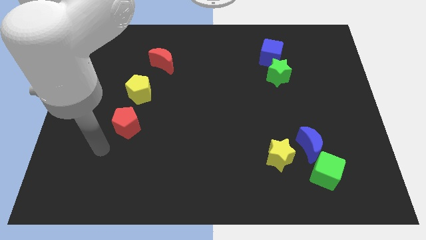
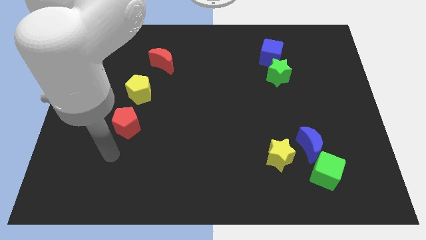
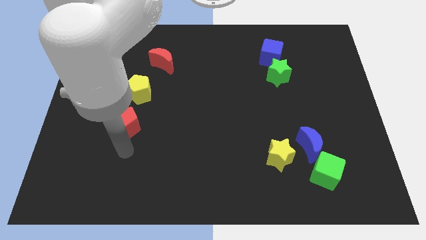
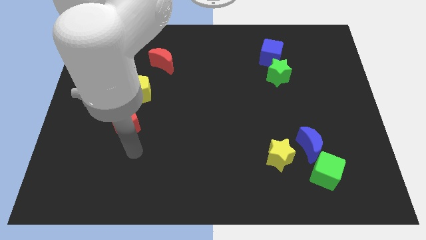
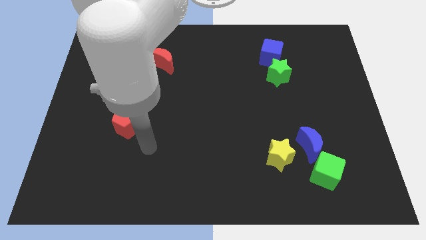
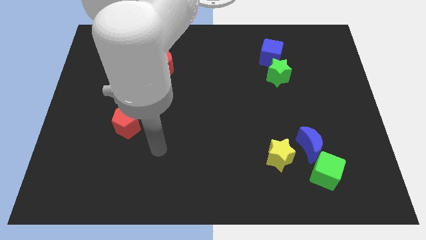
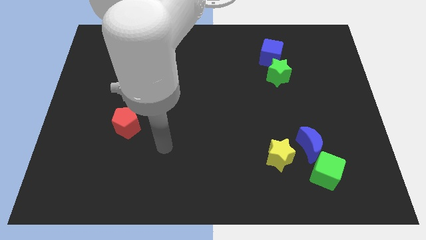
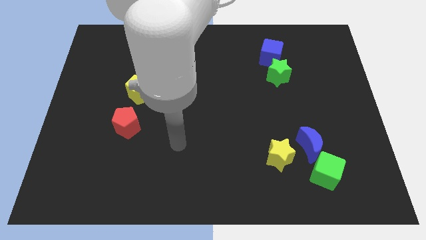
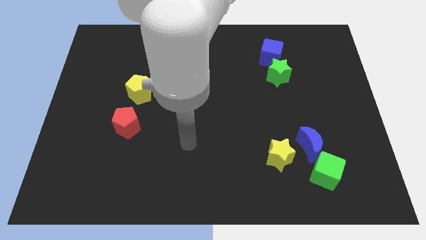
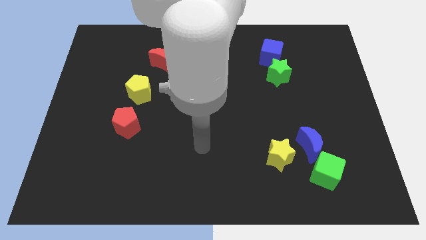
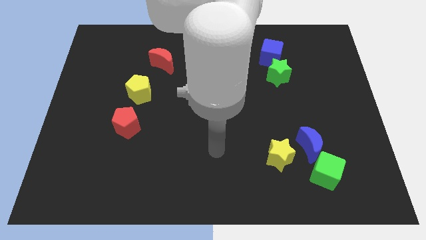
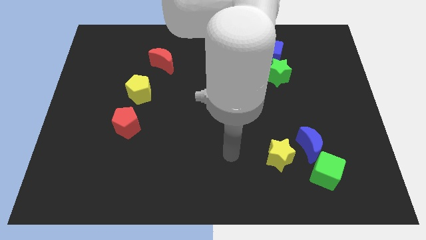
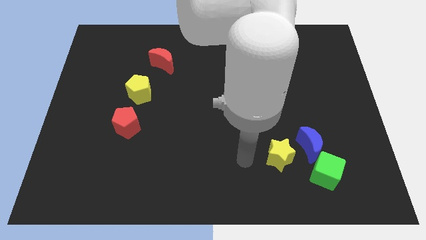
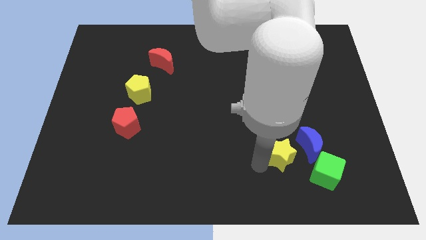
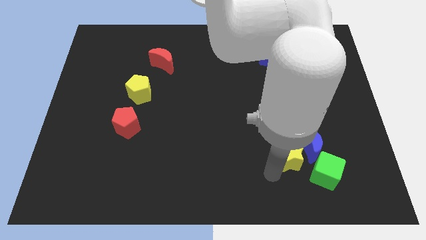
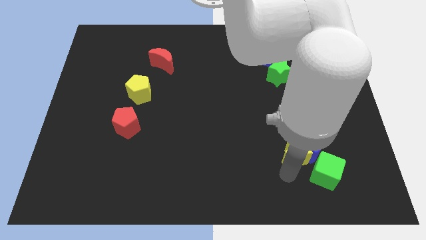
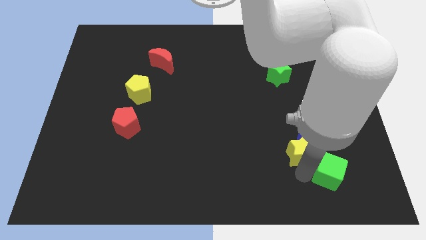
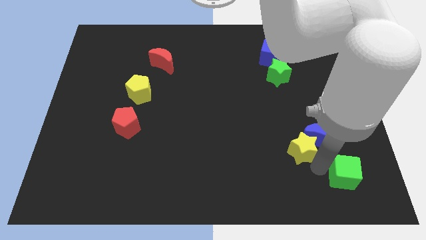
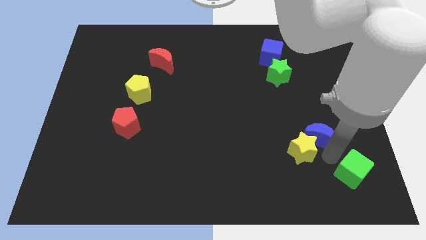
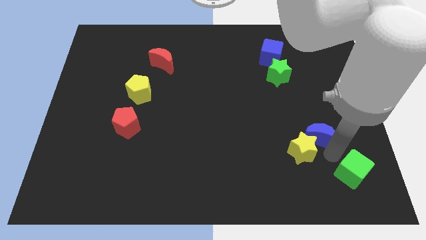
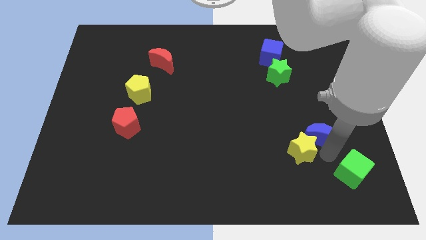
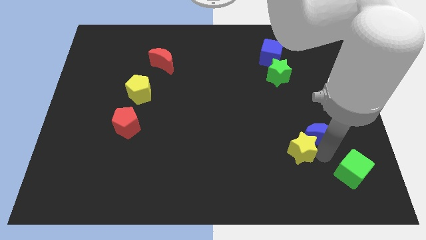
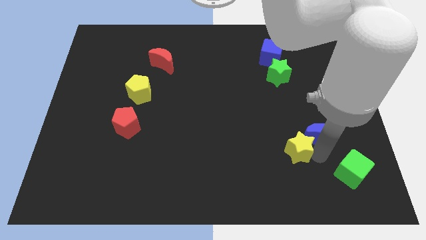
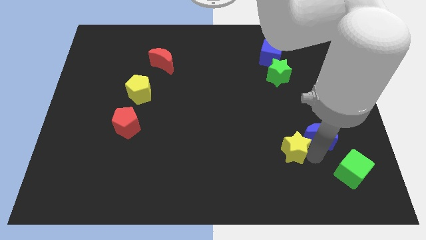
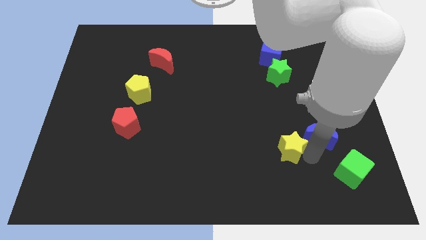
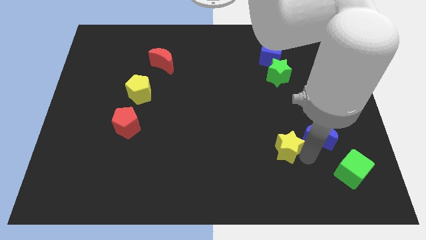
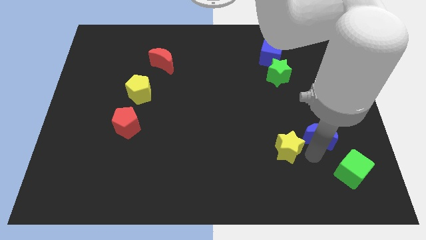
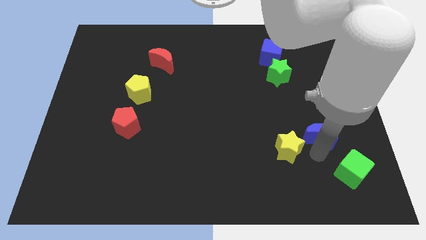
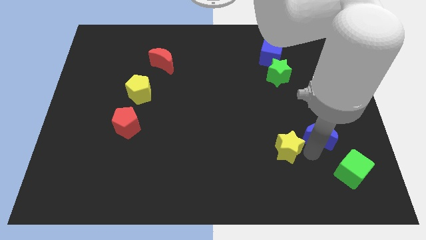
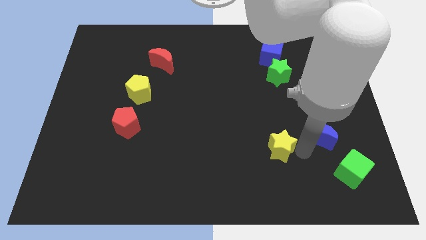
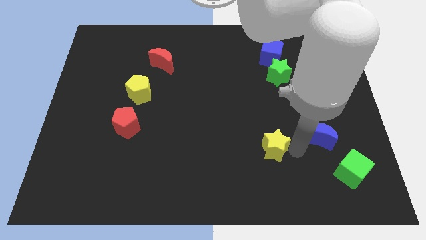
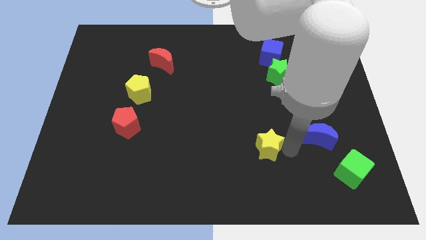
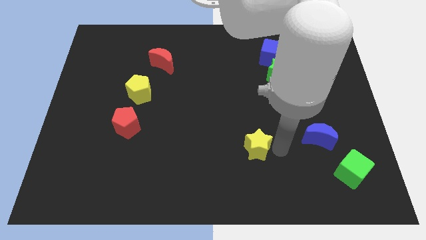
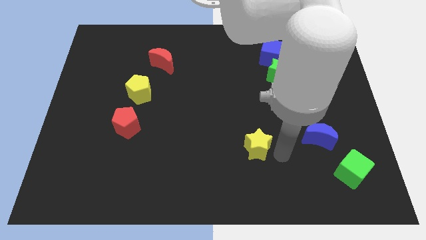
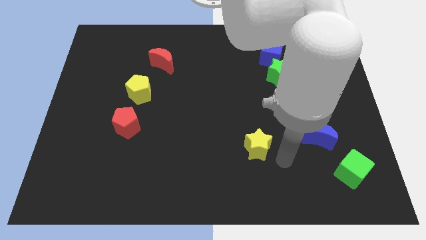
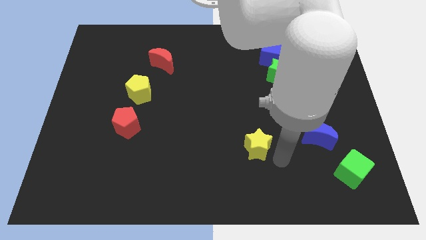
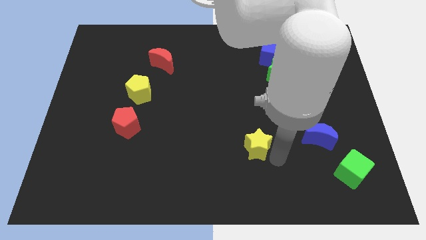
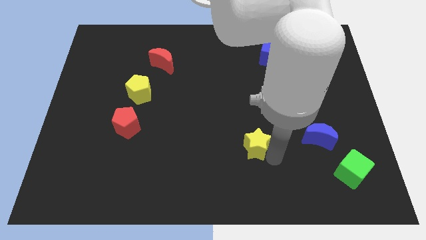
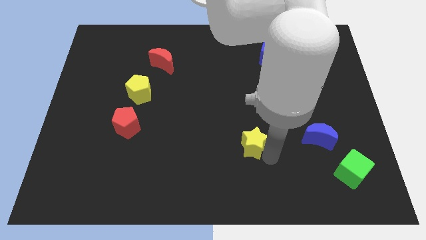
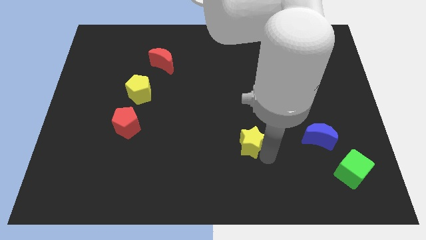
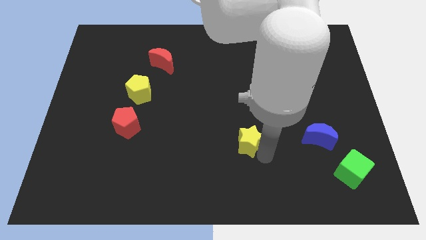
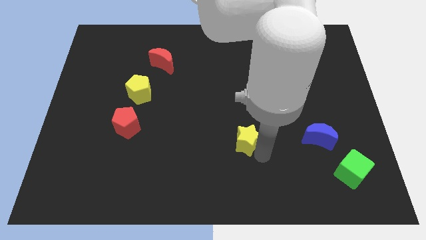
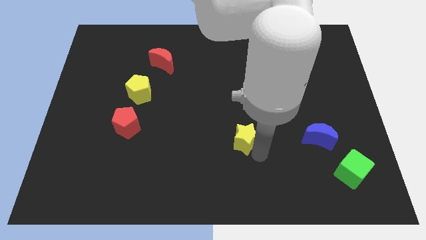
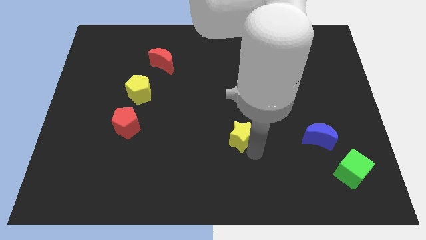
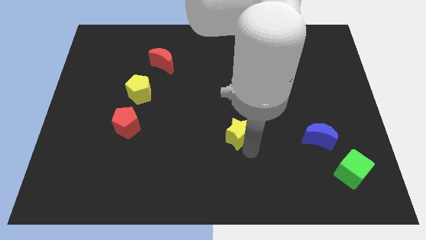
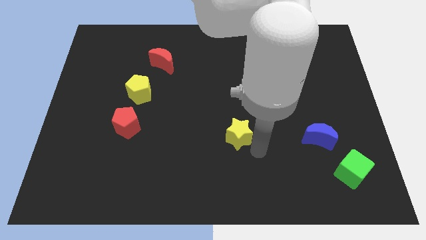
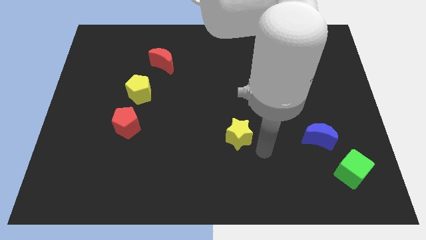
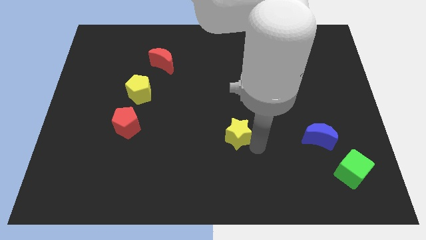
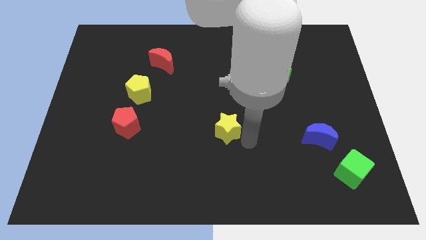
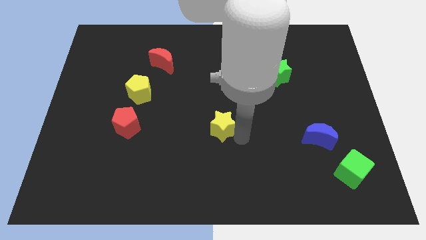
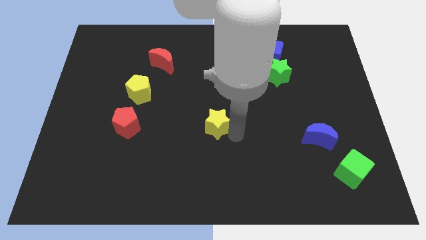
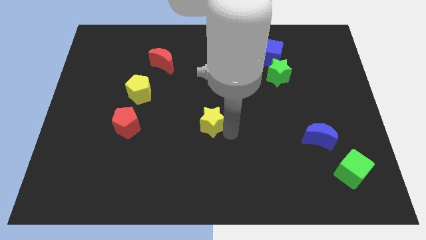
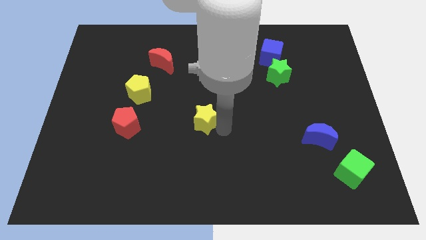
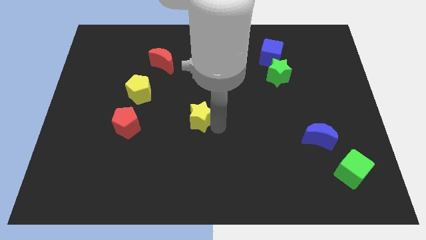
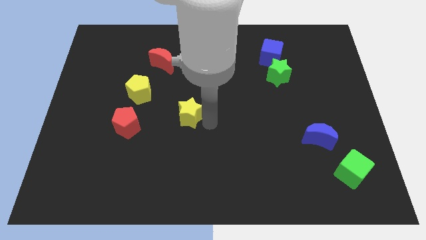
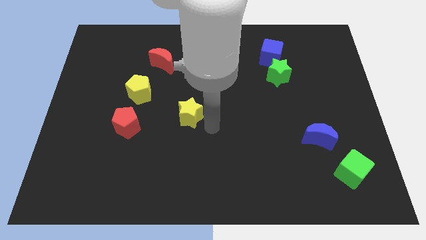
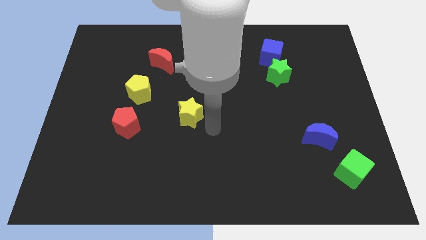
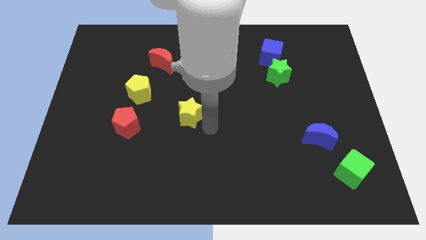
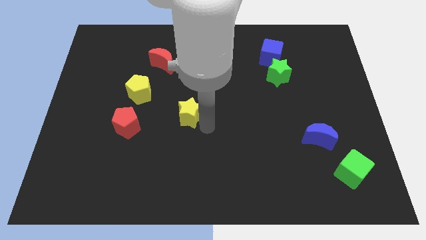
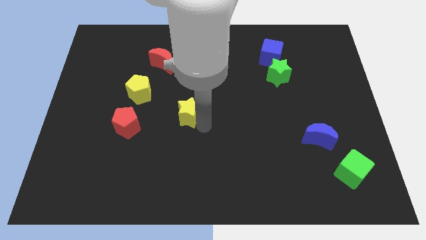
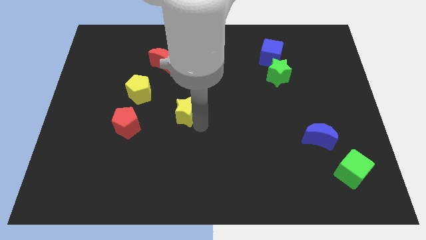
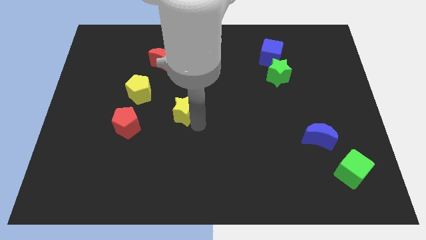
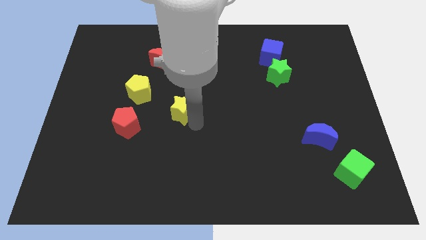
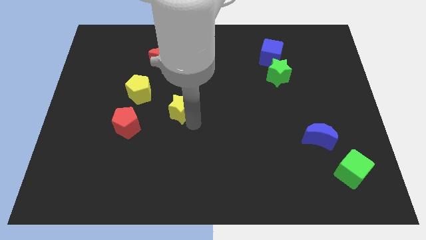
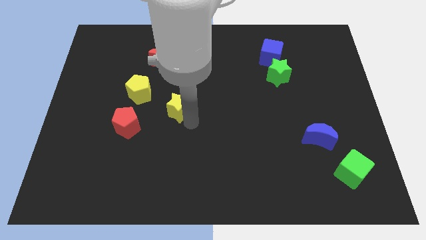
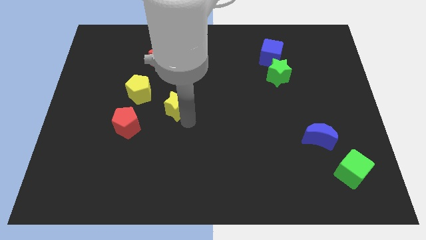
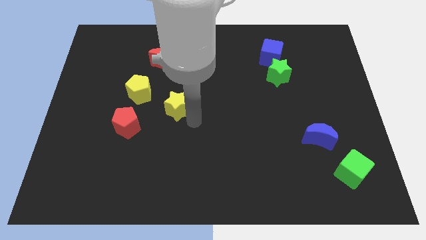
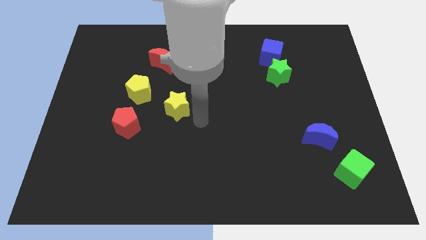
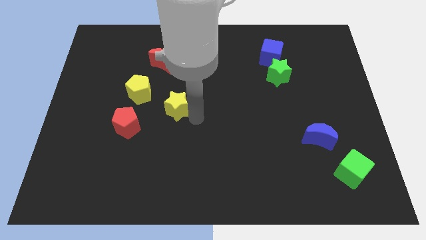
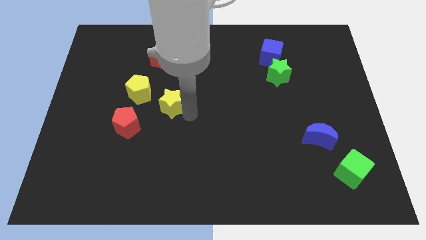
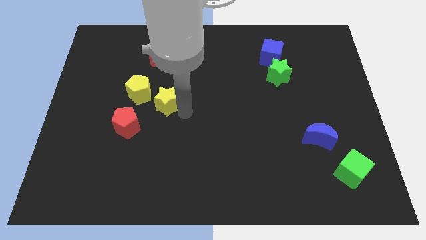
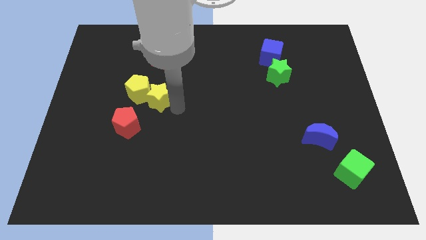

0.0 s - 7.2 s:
put the yellow star next to the yellow pentagon
